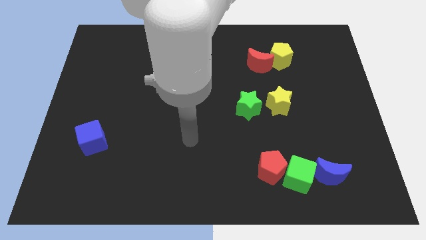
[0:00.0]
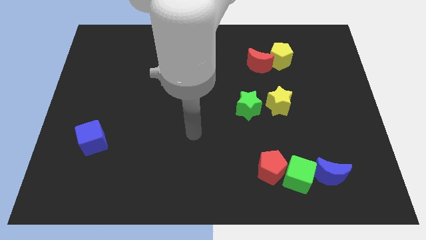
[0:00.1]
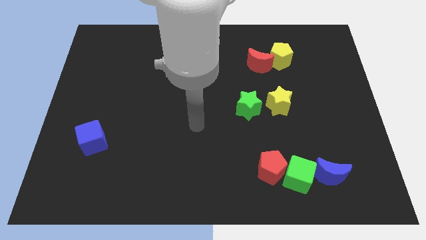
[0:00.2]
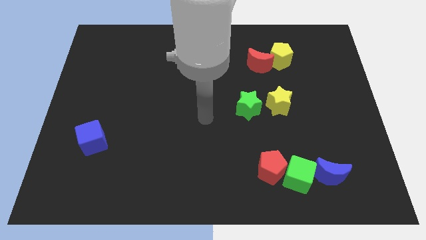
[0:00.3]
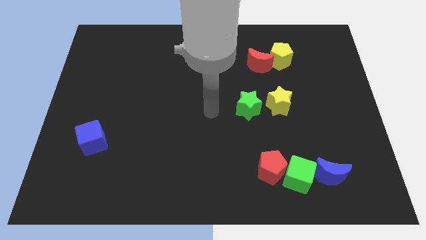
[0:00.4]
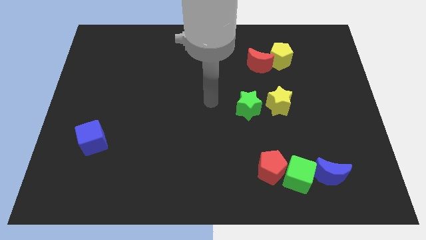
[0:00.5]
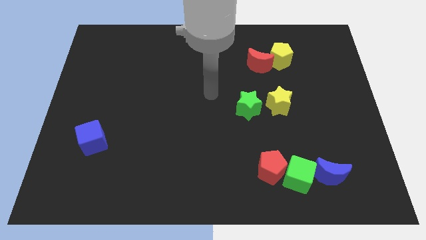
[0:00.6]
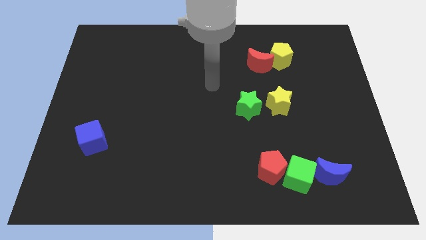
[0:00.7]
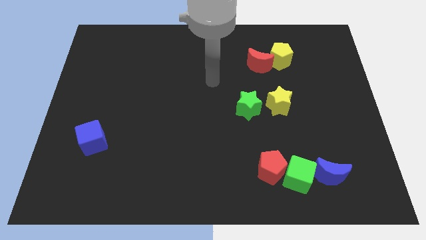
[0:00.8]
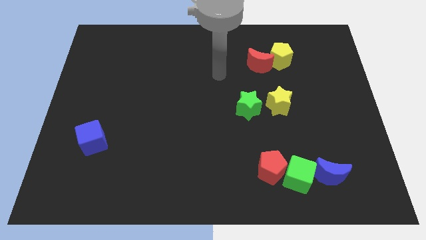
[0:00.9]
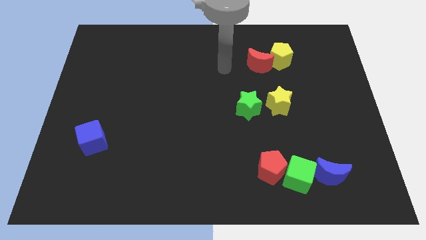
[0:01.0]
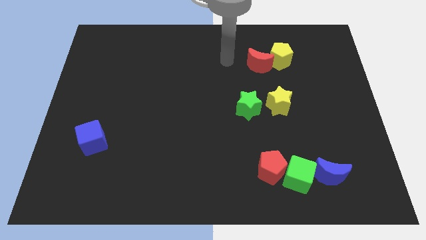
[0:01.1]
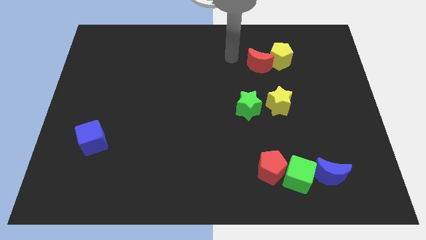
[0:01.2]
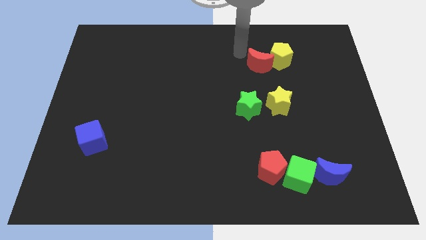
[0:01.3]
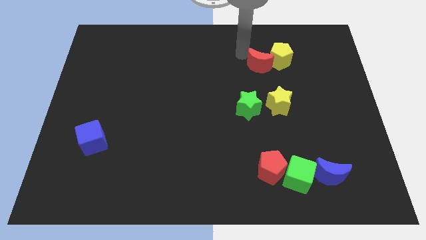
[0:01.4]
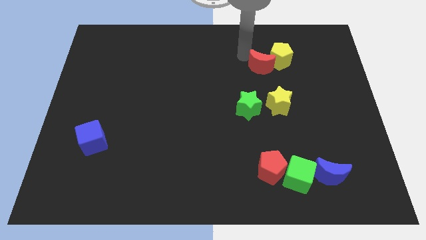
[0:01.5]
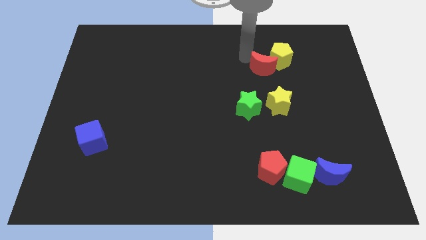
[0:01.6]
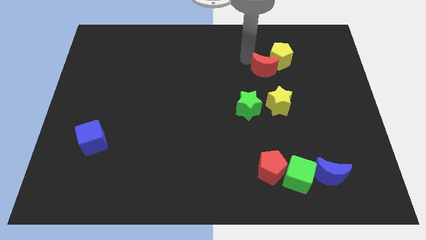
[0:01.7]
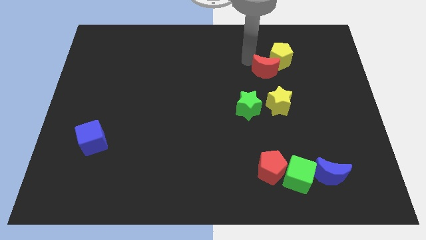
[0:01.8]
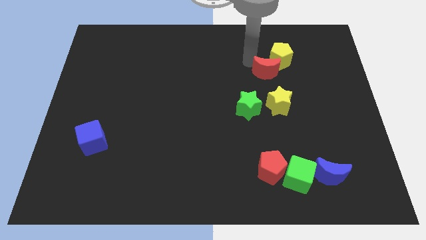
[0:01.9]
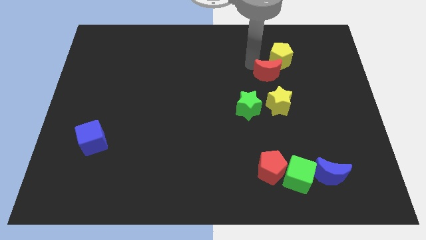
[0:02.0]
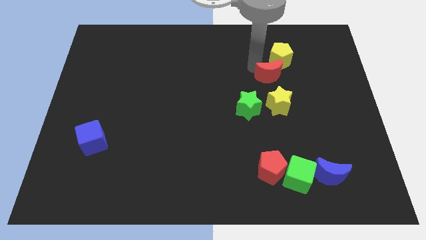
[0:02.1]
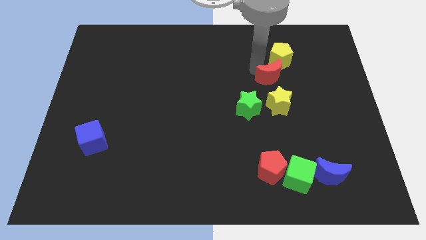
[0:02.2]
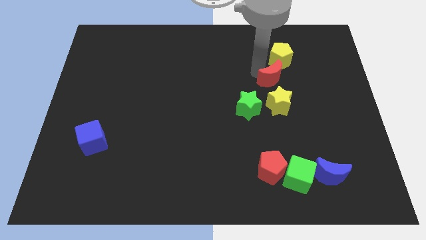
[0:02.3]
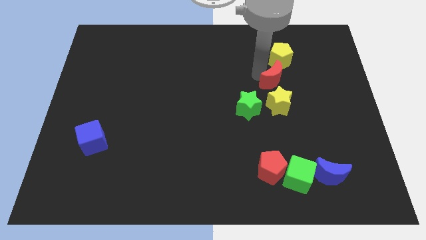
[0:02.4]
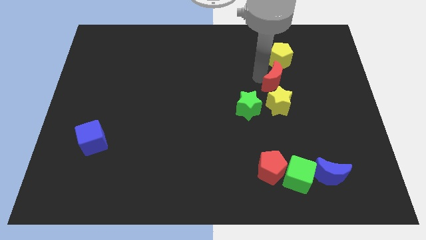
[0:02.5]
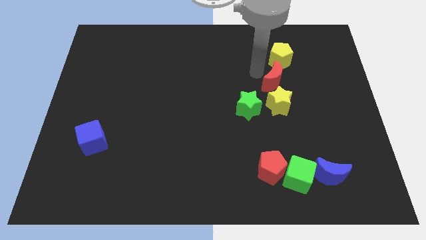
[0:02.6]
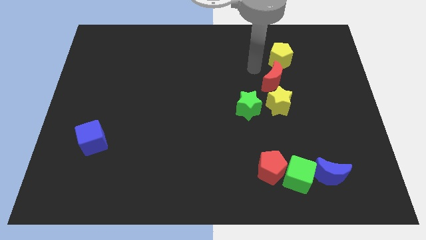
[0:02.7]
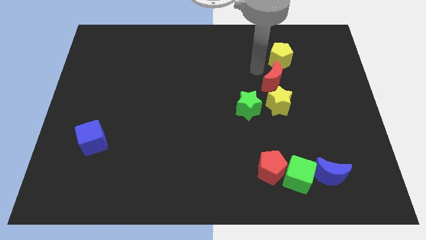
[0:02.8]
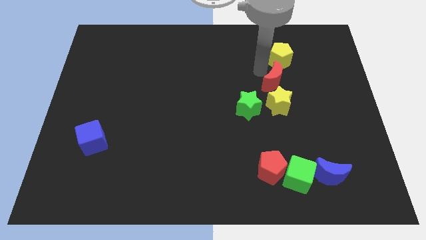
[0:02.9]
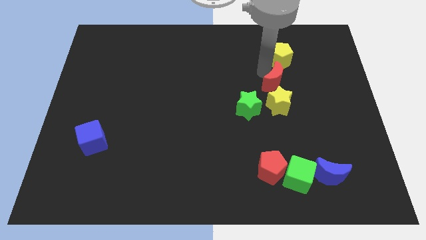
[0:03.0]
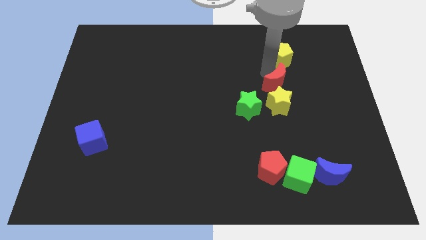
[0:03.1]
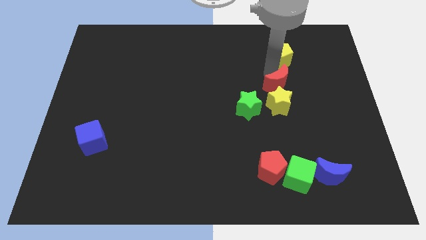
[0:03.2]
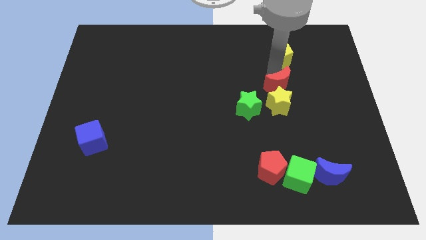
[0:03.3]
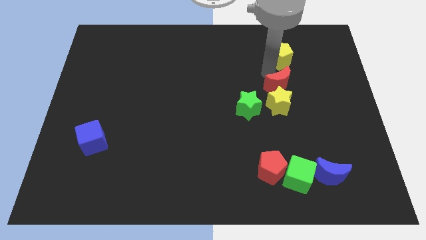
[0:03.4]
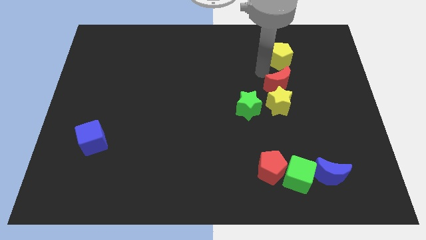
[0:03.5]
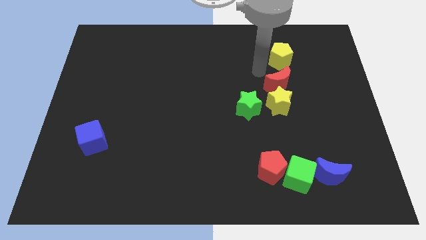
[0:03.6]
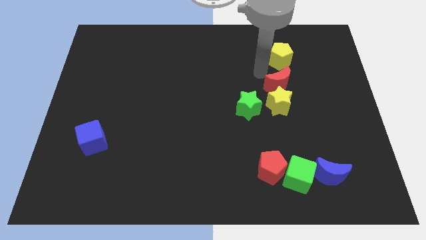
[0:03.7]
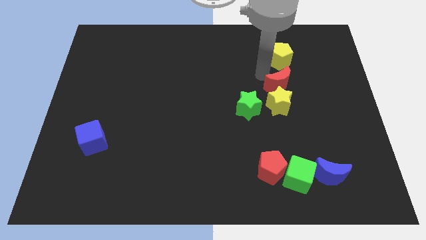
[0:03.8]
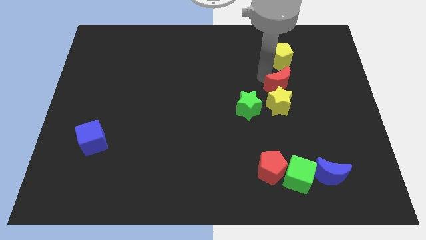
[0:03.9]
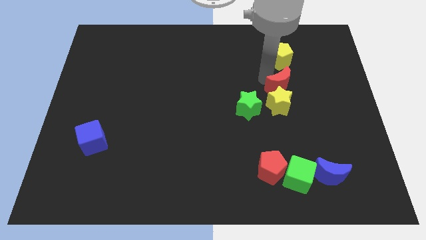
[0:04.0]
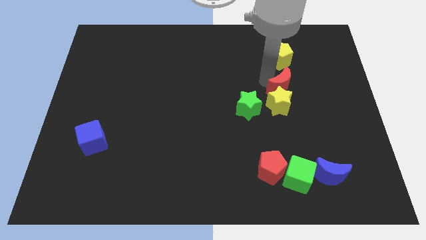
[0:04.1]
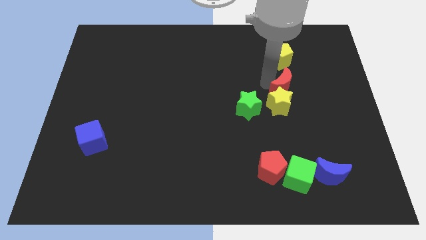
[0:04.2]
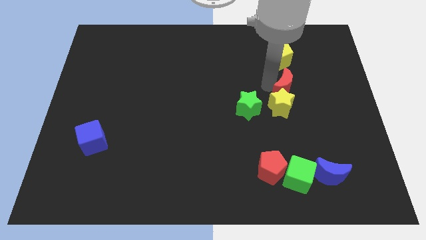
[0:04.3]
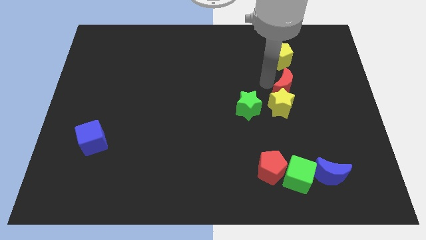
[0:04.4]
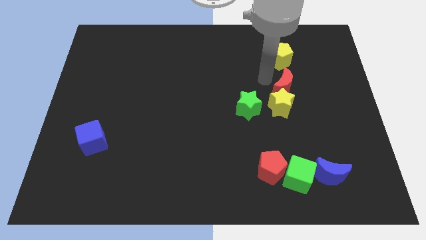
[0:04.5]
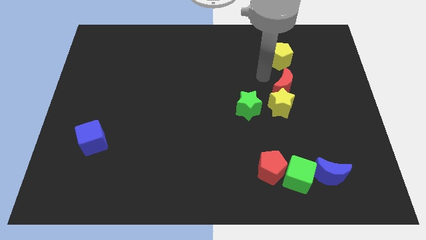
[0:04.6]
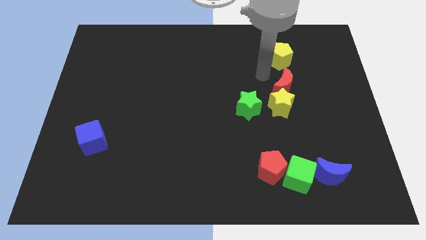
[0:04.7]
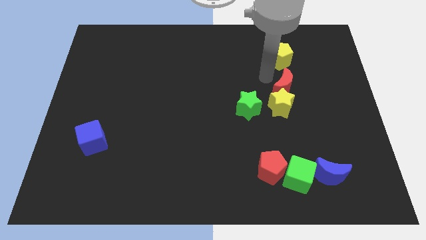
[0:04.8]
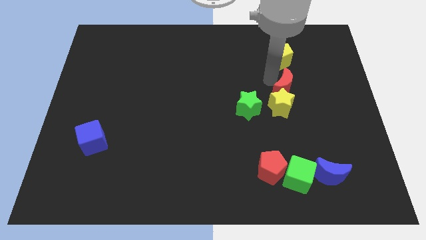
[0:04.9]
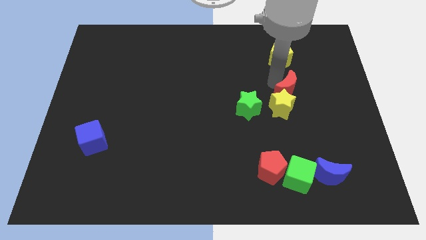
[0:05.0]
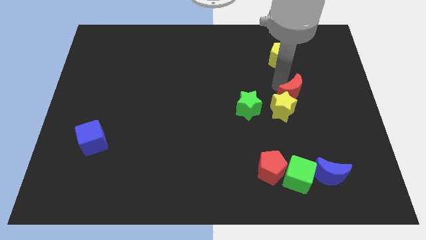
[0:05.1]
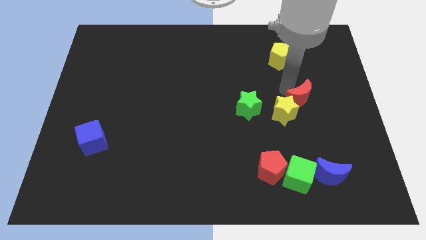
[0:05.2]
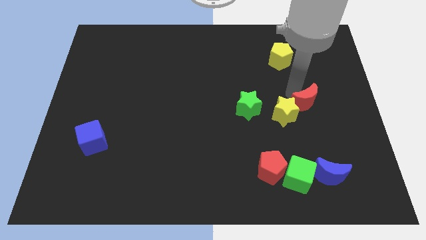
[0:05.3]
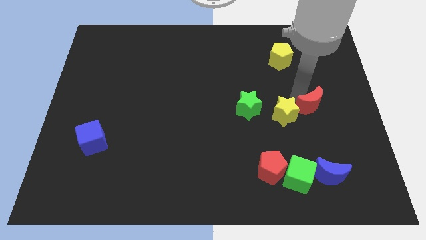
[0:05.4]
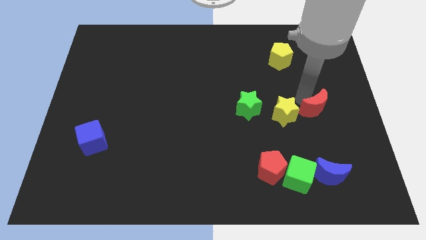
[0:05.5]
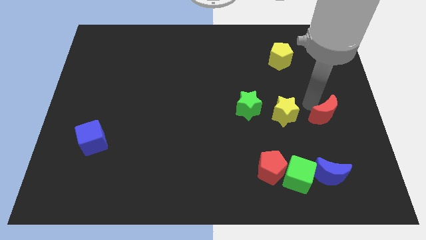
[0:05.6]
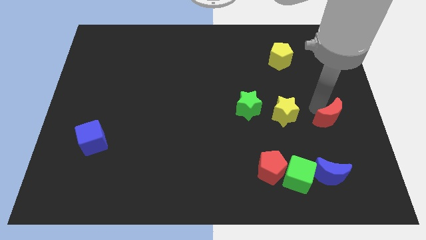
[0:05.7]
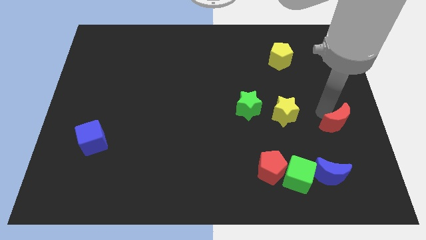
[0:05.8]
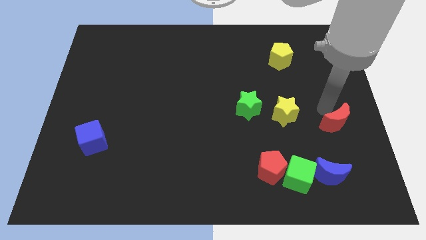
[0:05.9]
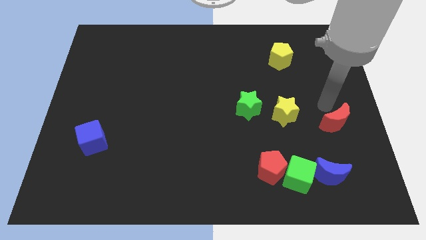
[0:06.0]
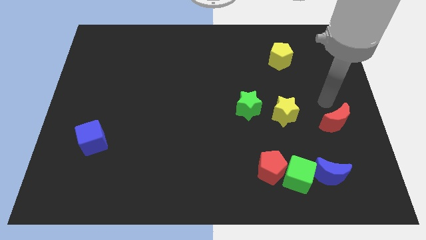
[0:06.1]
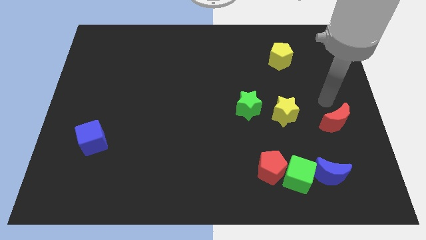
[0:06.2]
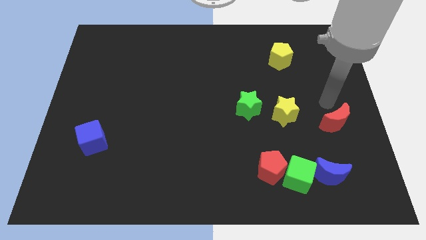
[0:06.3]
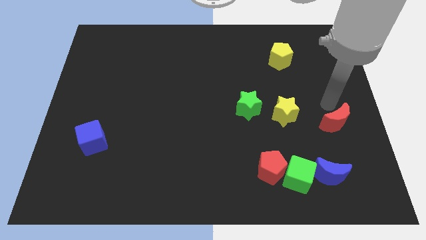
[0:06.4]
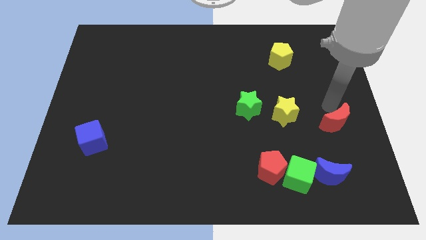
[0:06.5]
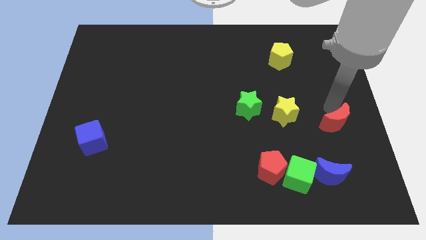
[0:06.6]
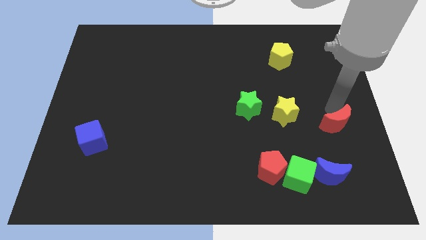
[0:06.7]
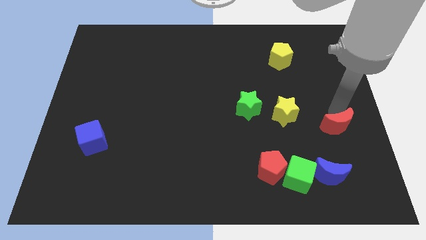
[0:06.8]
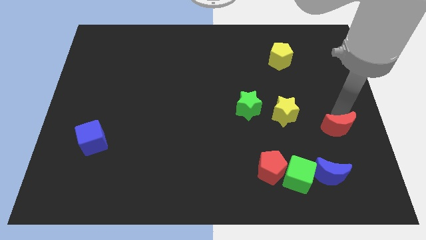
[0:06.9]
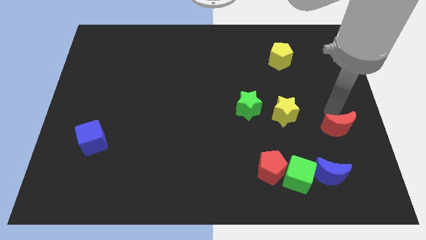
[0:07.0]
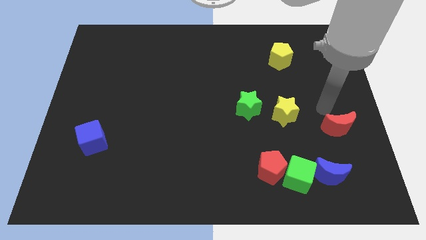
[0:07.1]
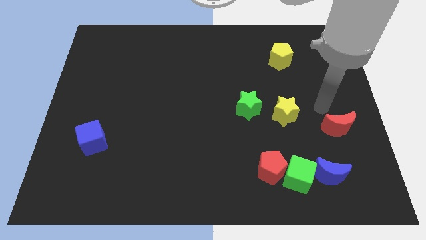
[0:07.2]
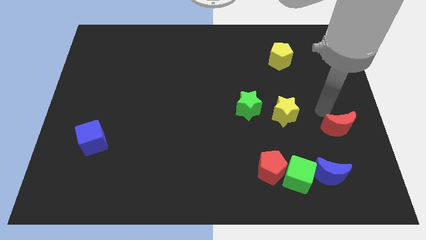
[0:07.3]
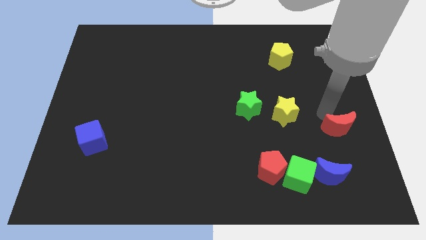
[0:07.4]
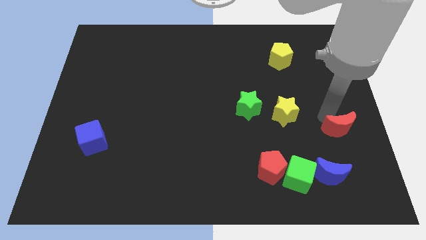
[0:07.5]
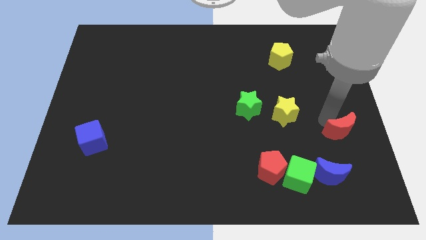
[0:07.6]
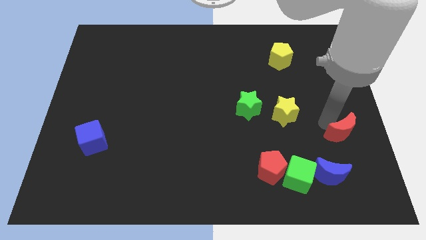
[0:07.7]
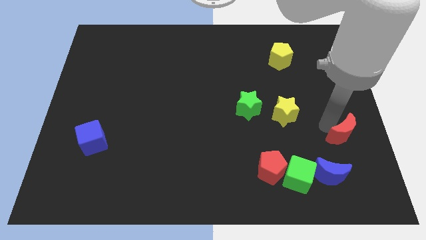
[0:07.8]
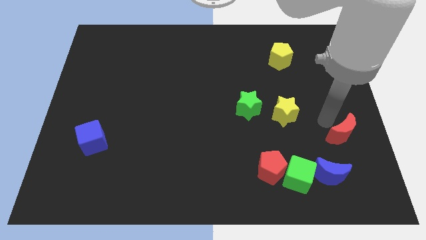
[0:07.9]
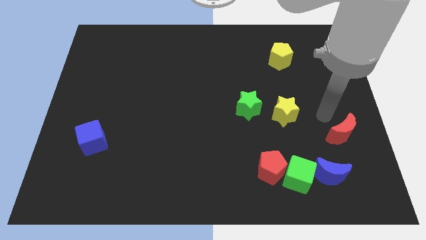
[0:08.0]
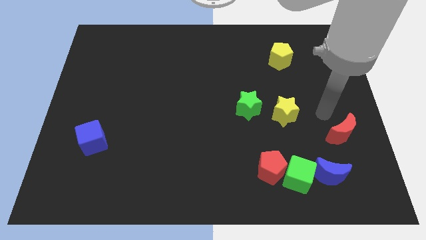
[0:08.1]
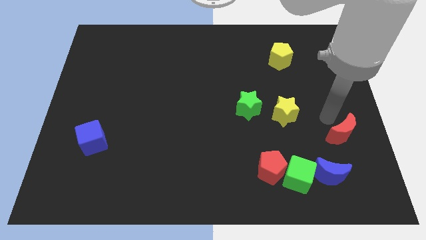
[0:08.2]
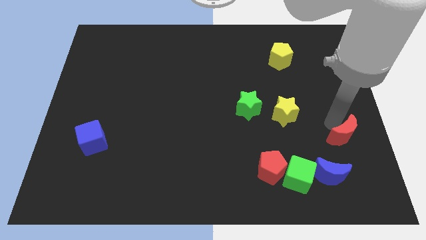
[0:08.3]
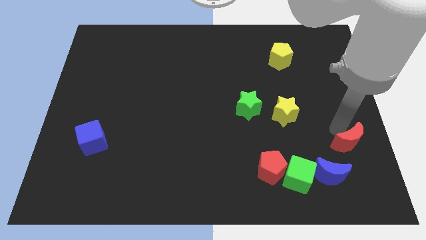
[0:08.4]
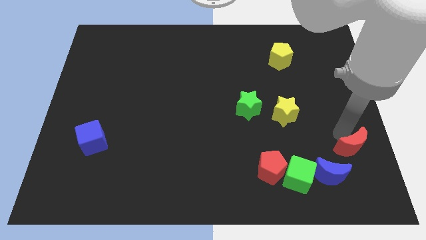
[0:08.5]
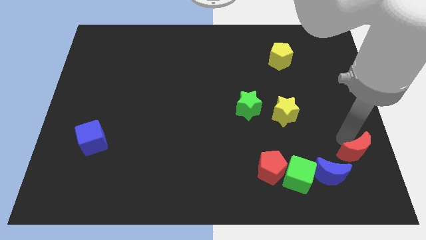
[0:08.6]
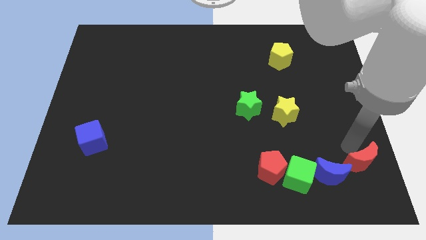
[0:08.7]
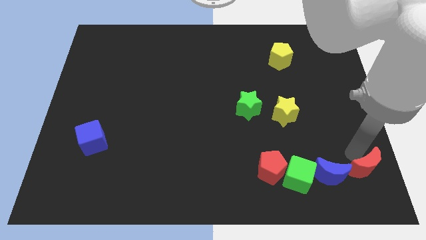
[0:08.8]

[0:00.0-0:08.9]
push the red moon to the lower right corner
